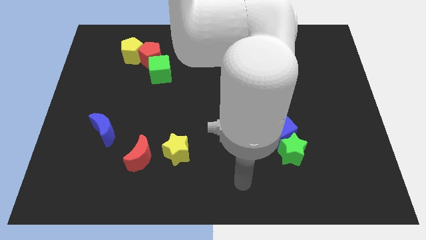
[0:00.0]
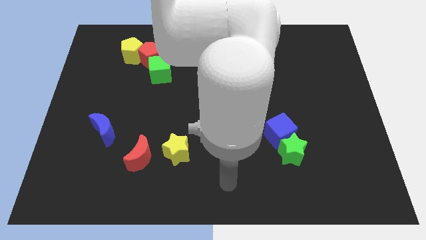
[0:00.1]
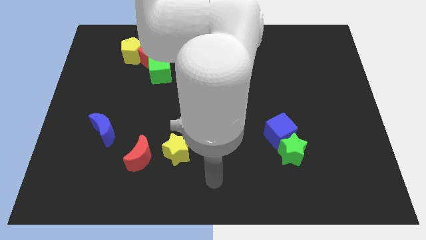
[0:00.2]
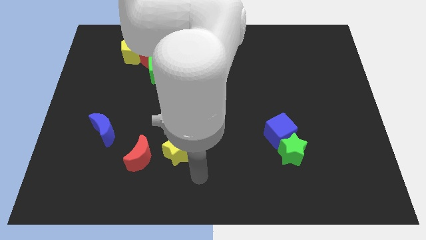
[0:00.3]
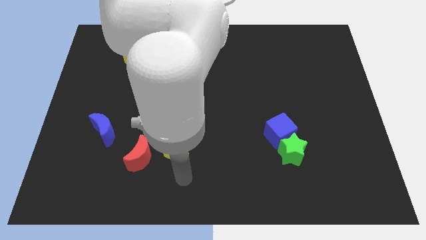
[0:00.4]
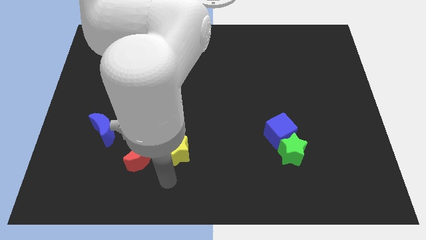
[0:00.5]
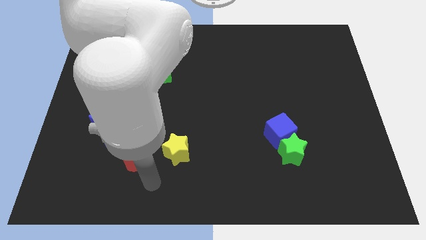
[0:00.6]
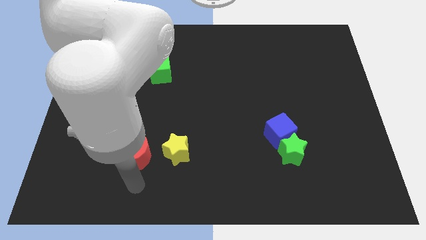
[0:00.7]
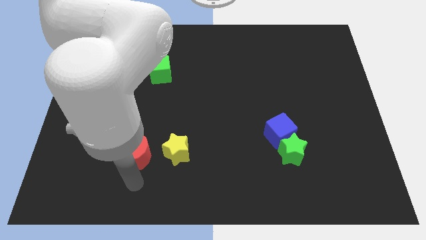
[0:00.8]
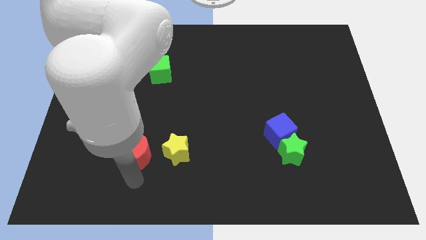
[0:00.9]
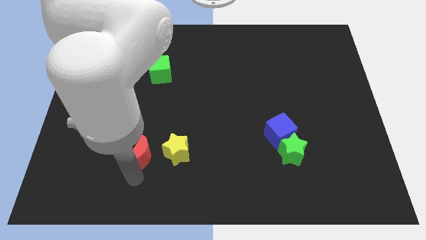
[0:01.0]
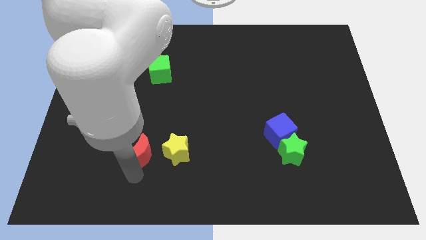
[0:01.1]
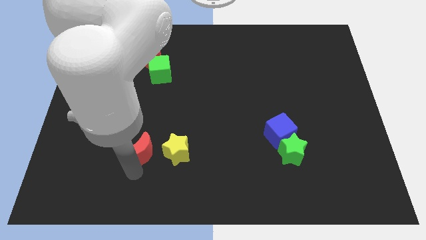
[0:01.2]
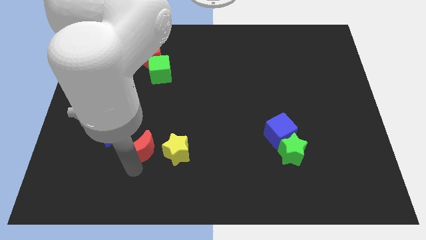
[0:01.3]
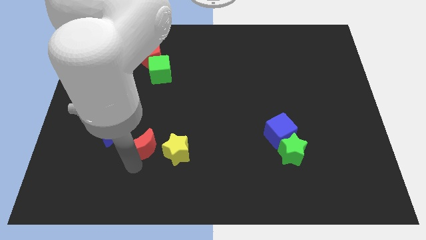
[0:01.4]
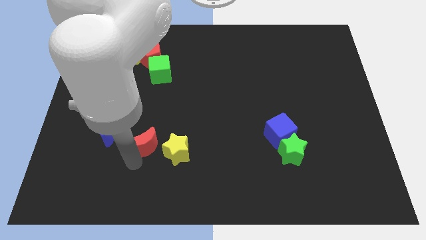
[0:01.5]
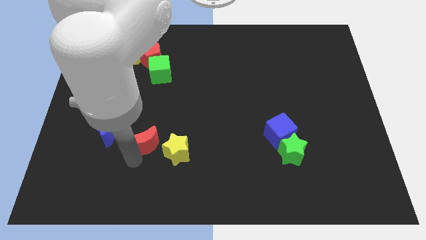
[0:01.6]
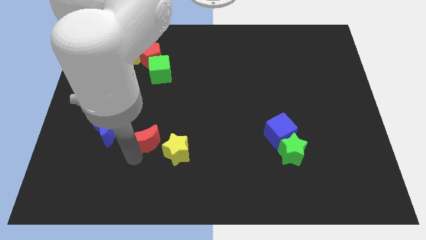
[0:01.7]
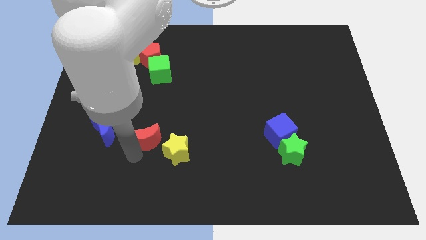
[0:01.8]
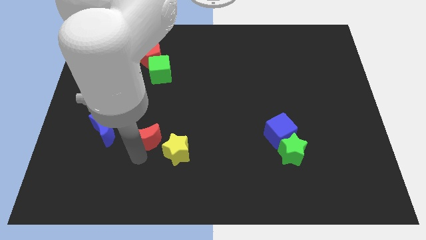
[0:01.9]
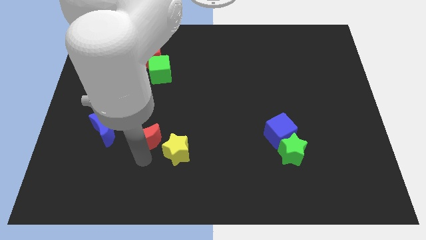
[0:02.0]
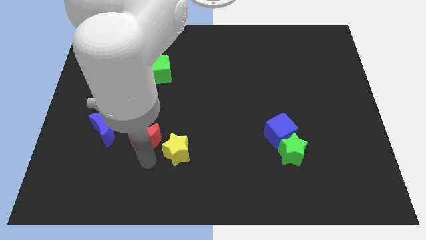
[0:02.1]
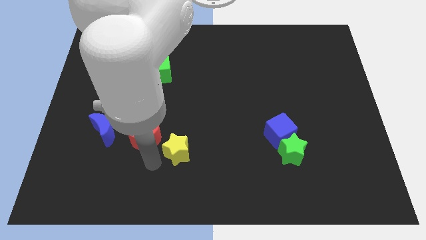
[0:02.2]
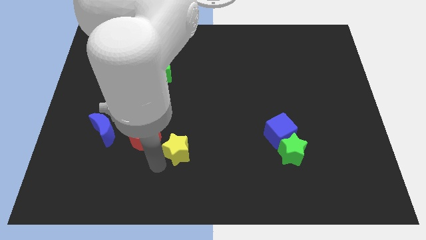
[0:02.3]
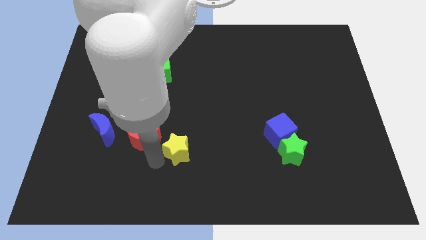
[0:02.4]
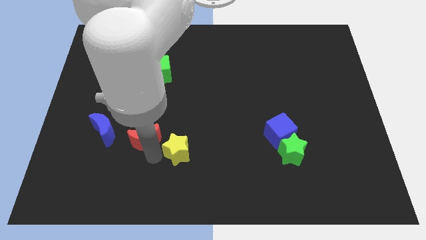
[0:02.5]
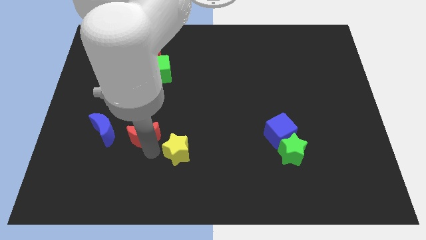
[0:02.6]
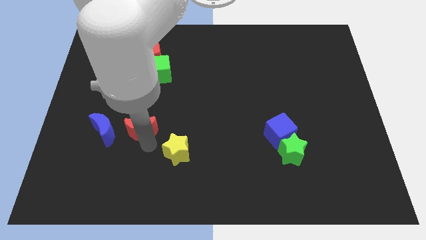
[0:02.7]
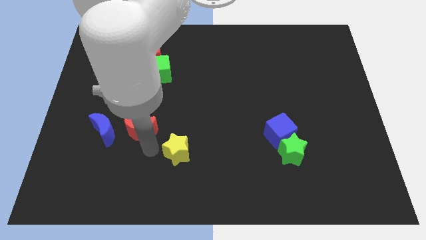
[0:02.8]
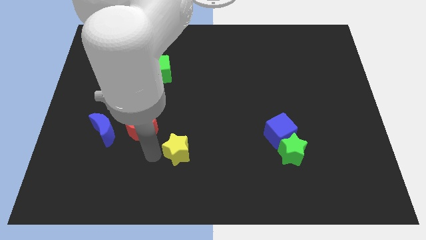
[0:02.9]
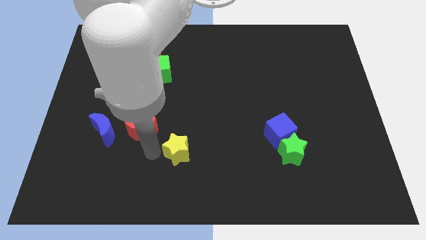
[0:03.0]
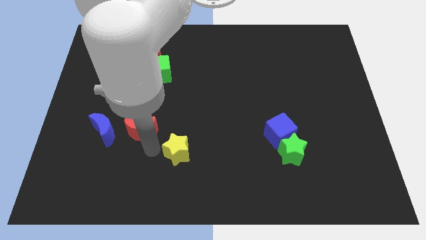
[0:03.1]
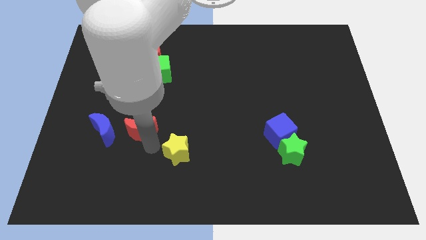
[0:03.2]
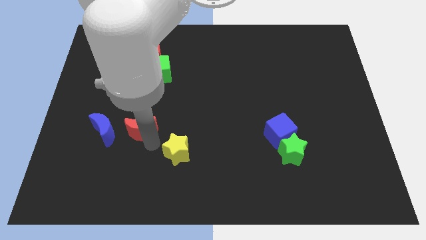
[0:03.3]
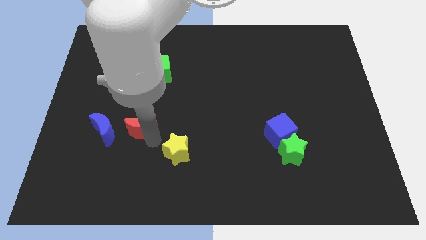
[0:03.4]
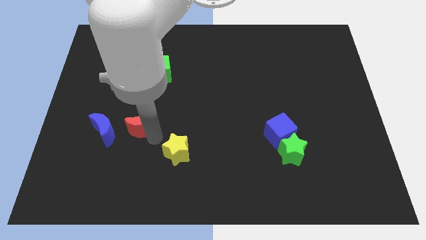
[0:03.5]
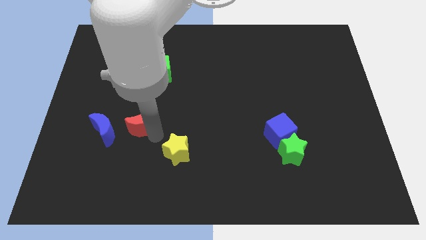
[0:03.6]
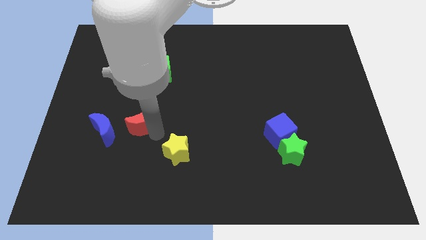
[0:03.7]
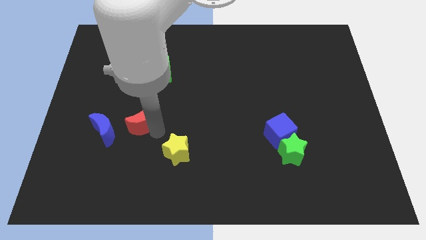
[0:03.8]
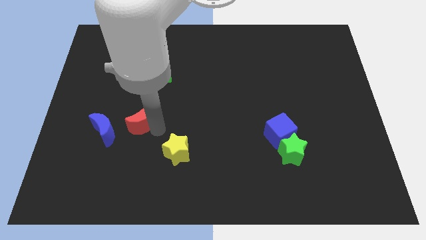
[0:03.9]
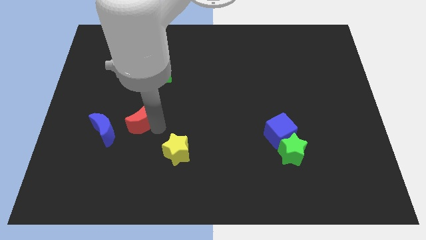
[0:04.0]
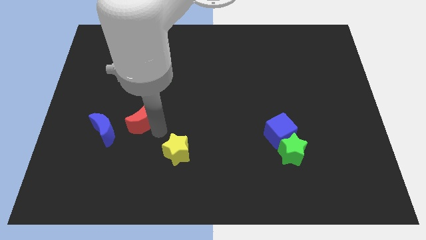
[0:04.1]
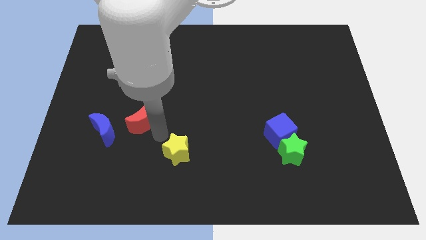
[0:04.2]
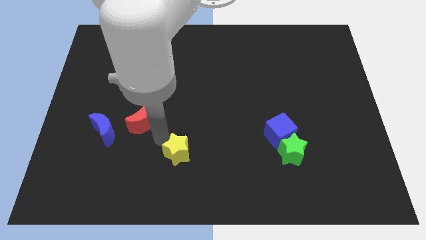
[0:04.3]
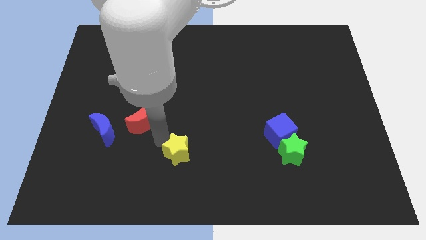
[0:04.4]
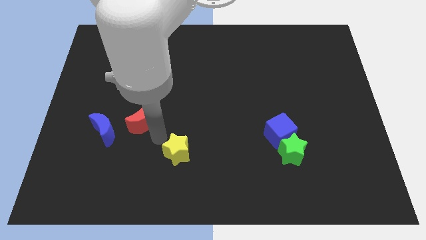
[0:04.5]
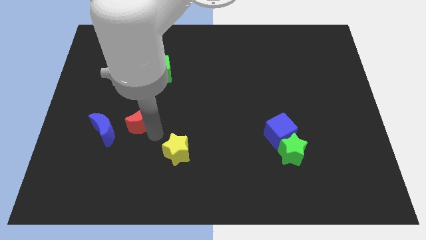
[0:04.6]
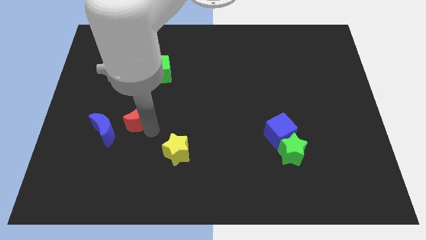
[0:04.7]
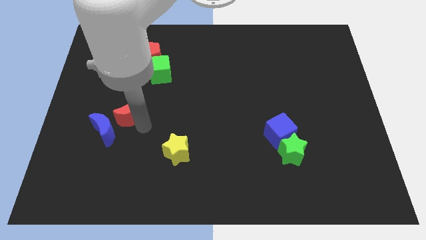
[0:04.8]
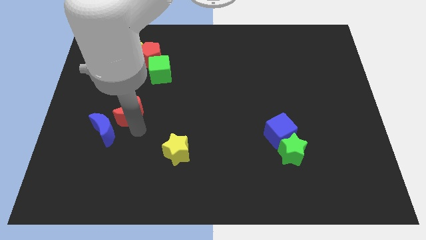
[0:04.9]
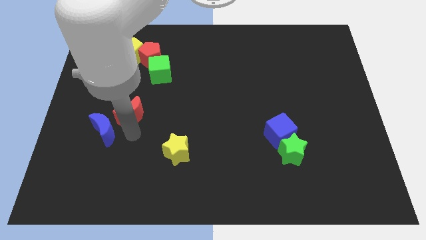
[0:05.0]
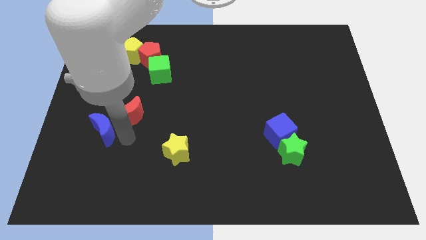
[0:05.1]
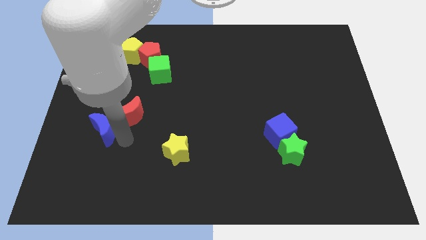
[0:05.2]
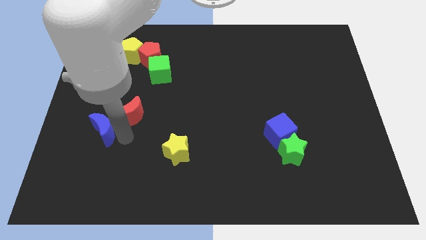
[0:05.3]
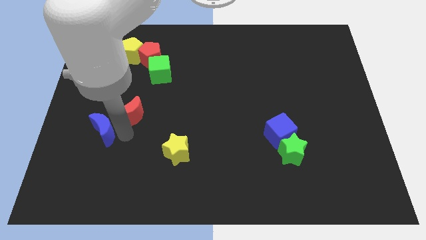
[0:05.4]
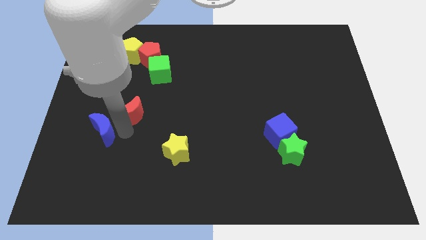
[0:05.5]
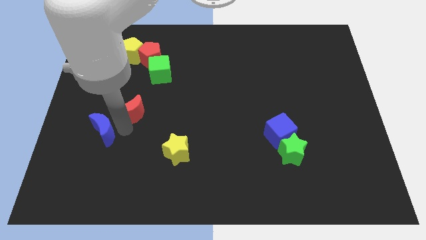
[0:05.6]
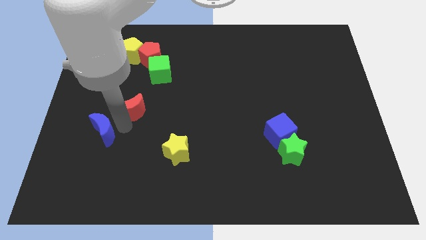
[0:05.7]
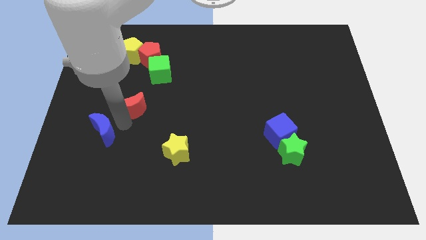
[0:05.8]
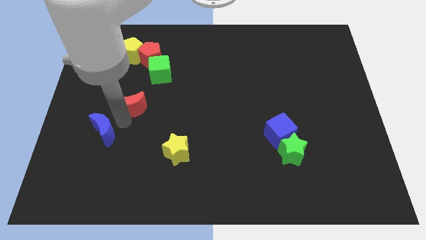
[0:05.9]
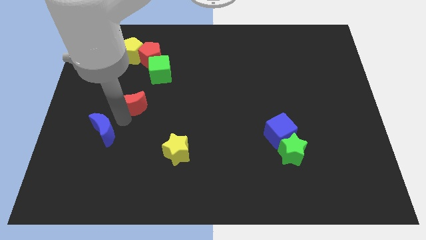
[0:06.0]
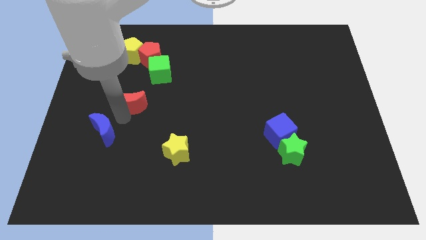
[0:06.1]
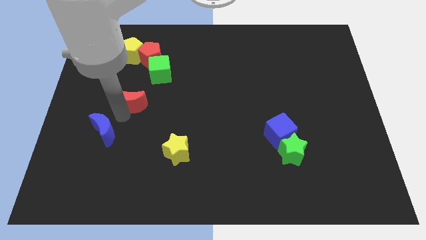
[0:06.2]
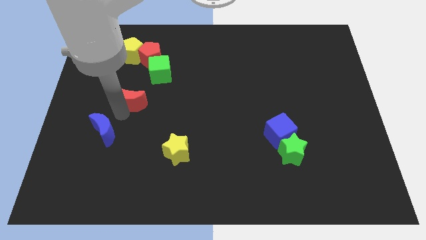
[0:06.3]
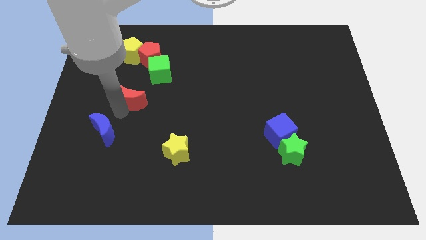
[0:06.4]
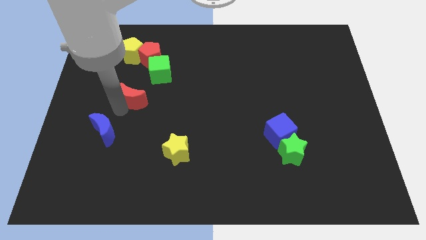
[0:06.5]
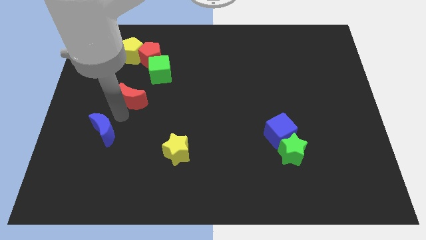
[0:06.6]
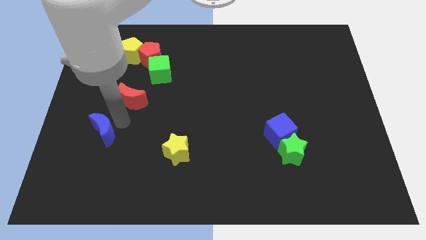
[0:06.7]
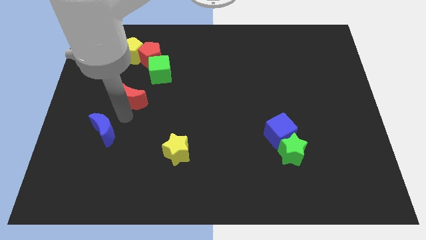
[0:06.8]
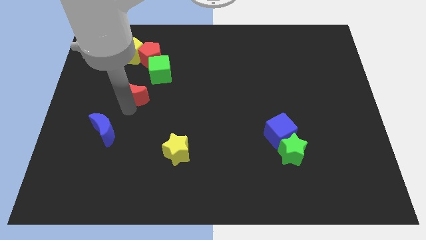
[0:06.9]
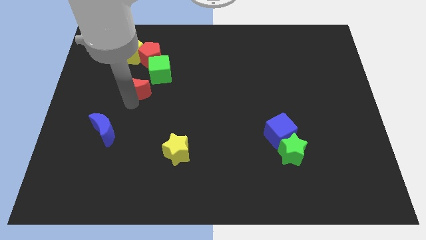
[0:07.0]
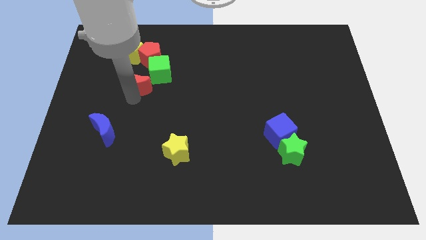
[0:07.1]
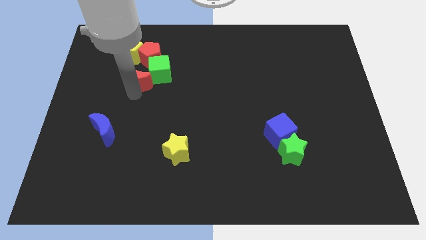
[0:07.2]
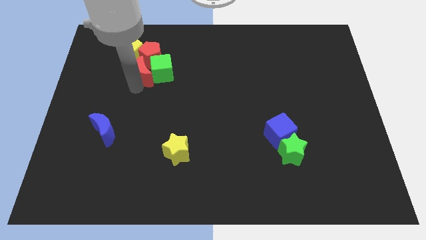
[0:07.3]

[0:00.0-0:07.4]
put the red moon to the red pentagon
